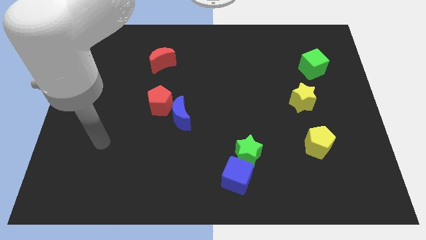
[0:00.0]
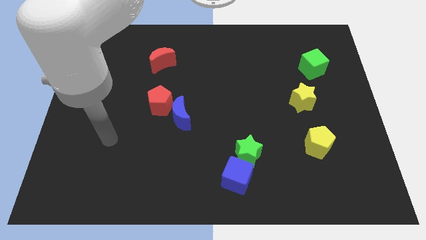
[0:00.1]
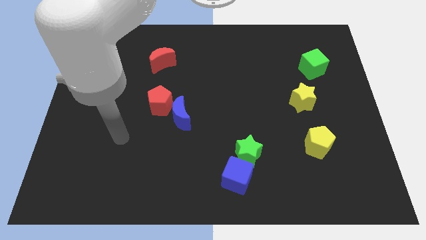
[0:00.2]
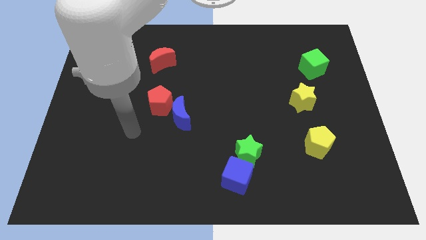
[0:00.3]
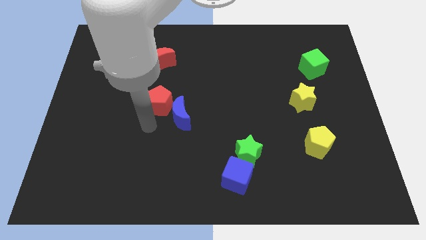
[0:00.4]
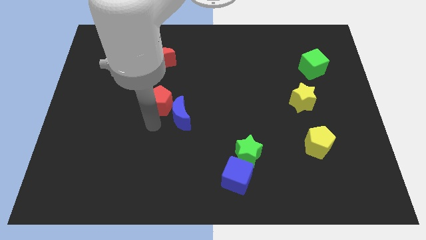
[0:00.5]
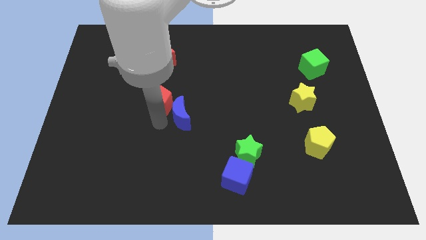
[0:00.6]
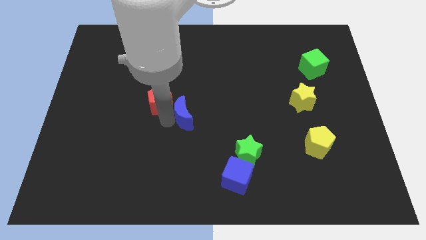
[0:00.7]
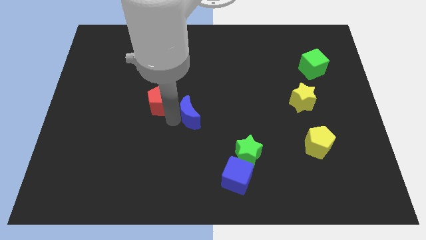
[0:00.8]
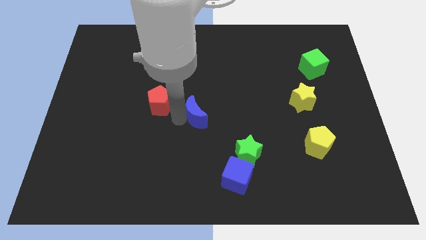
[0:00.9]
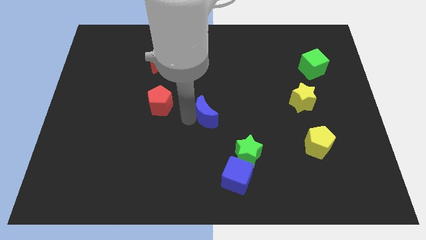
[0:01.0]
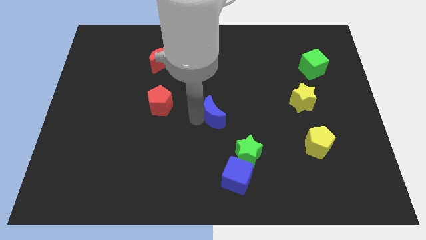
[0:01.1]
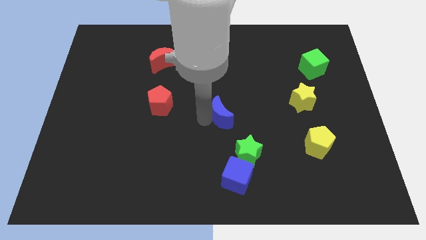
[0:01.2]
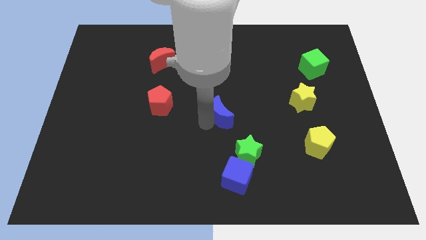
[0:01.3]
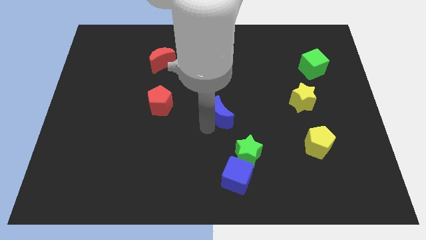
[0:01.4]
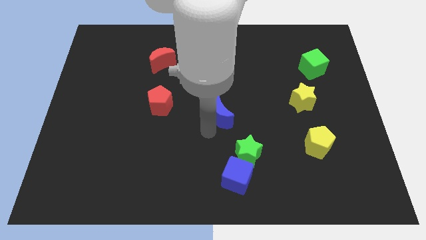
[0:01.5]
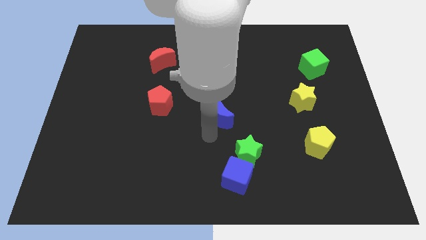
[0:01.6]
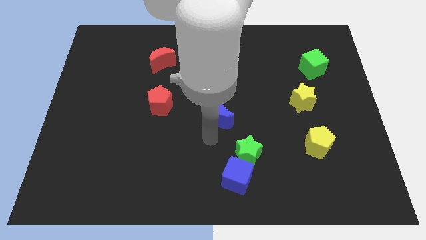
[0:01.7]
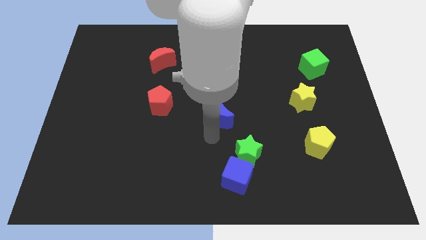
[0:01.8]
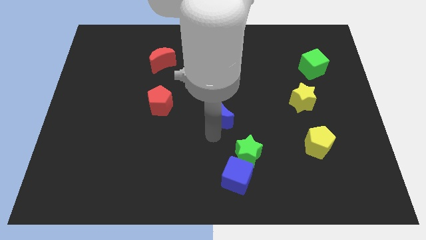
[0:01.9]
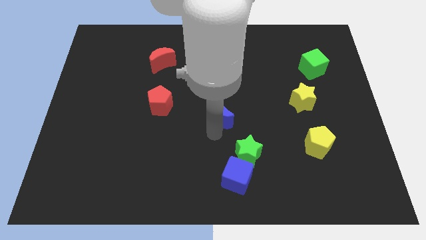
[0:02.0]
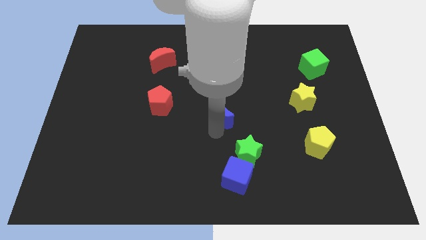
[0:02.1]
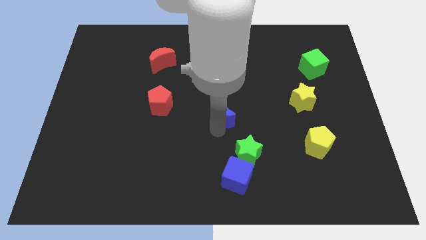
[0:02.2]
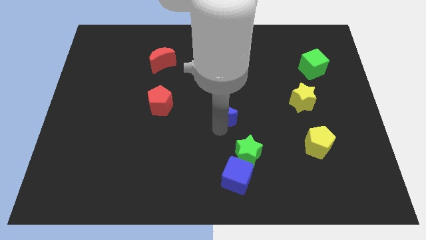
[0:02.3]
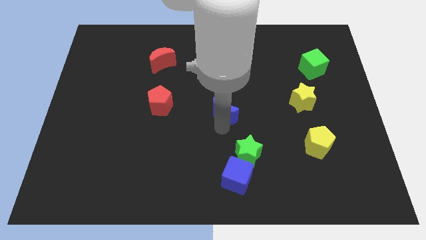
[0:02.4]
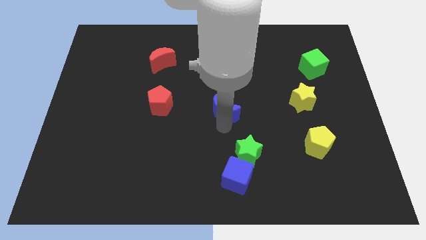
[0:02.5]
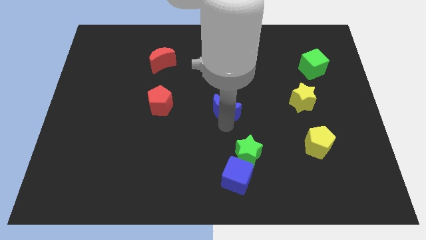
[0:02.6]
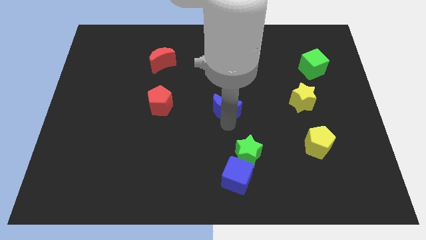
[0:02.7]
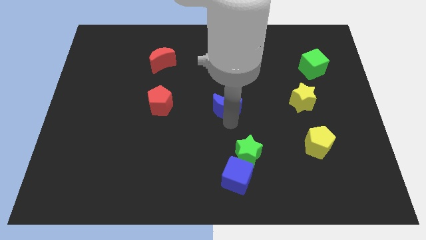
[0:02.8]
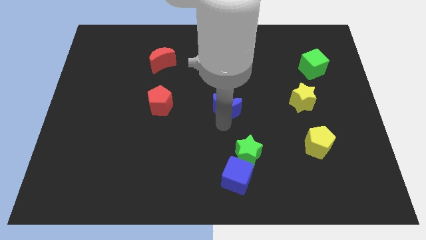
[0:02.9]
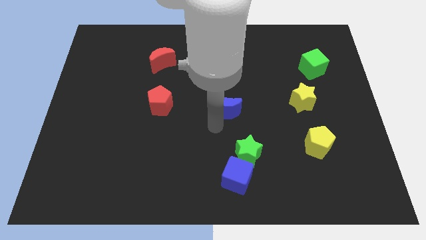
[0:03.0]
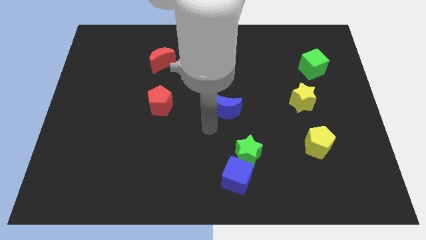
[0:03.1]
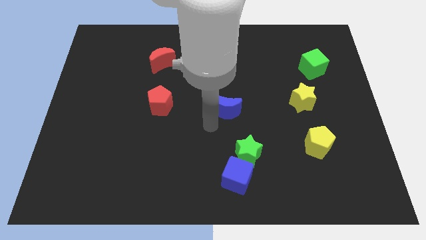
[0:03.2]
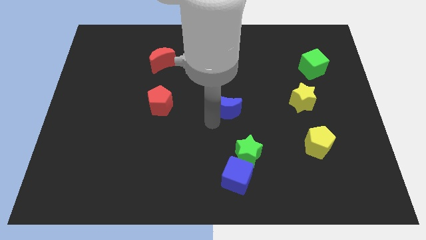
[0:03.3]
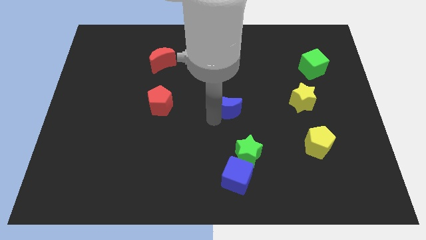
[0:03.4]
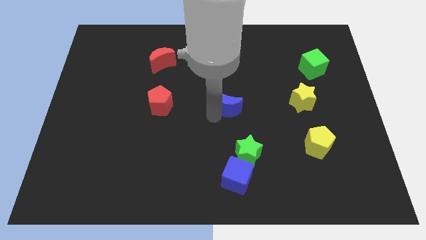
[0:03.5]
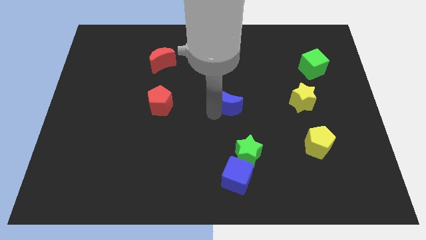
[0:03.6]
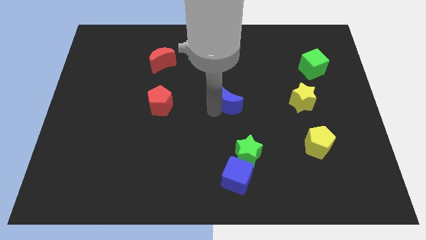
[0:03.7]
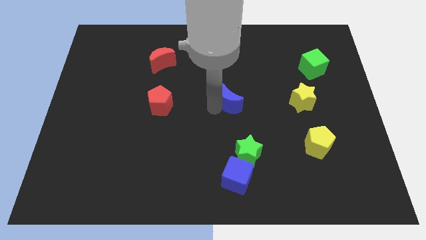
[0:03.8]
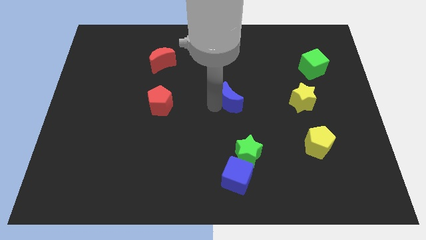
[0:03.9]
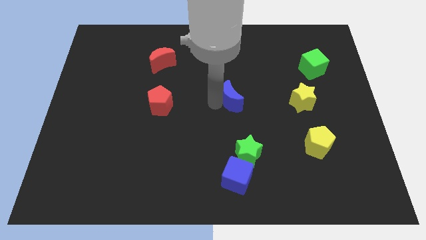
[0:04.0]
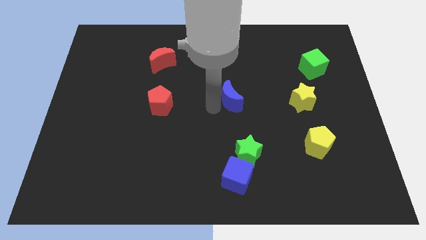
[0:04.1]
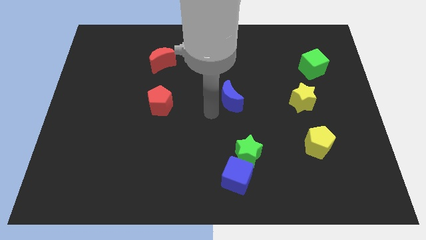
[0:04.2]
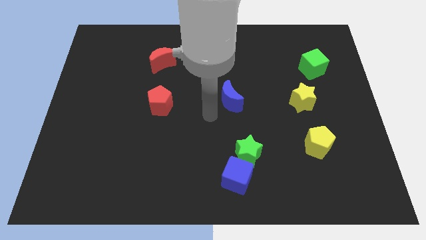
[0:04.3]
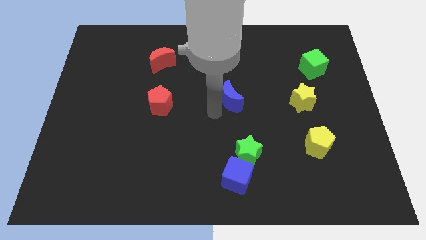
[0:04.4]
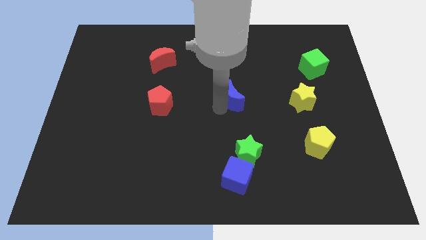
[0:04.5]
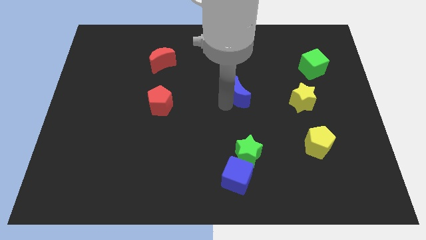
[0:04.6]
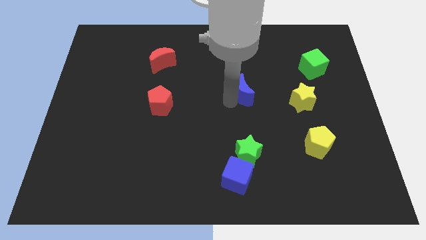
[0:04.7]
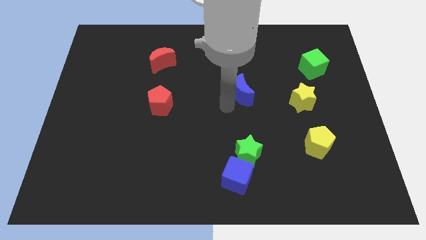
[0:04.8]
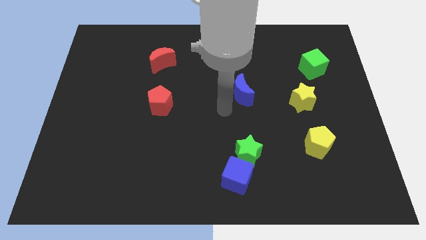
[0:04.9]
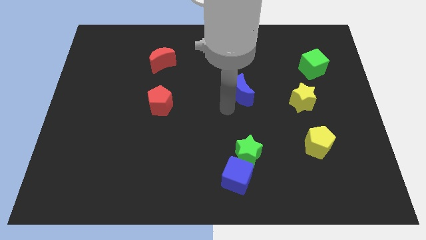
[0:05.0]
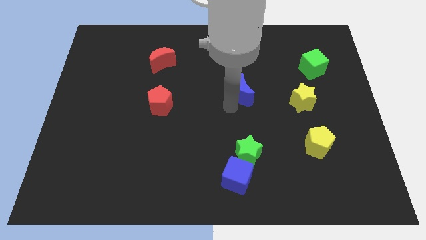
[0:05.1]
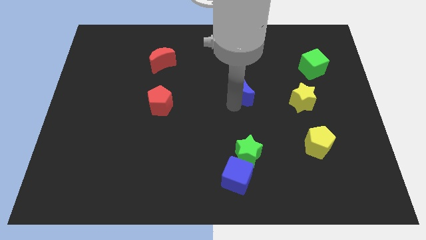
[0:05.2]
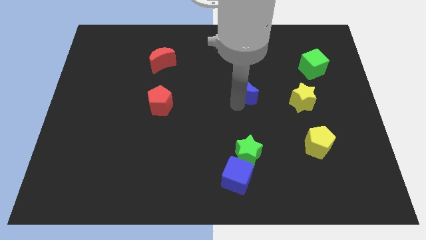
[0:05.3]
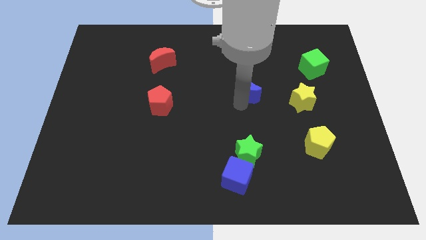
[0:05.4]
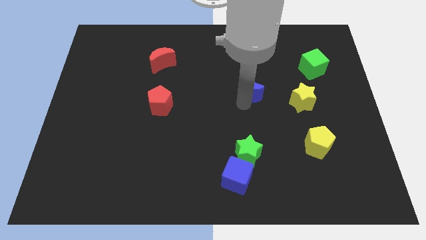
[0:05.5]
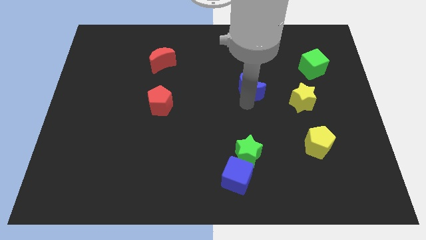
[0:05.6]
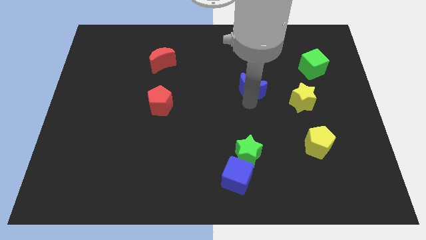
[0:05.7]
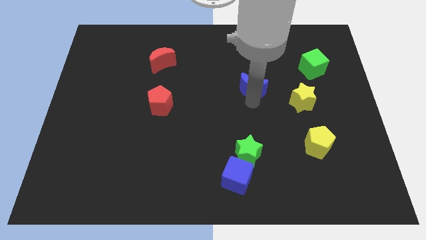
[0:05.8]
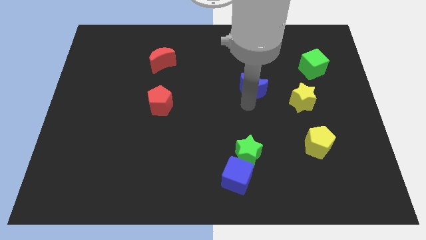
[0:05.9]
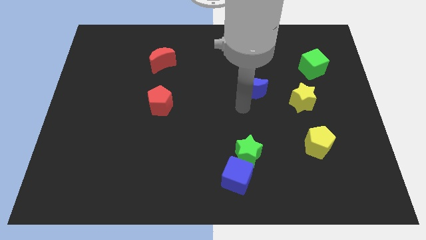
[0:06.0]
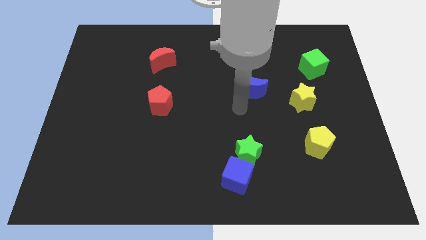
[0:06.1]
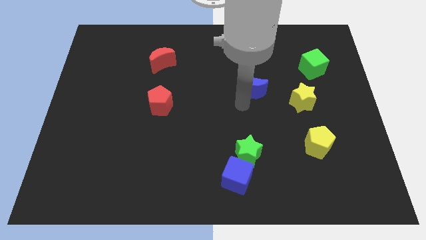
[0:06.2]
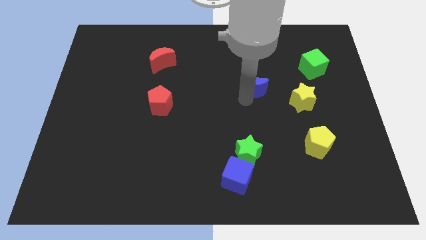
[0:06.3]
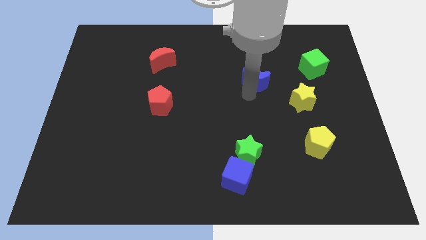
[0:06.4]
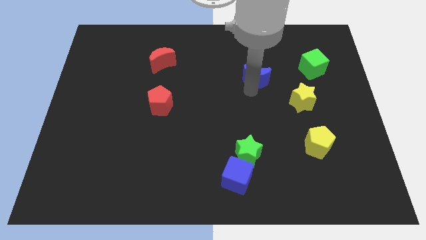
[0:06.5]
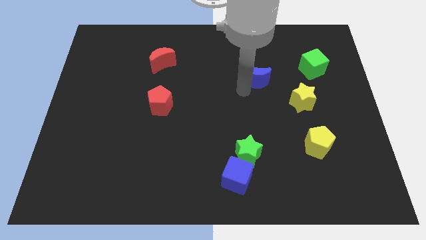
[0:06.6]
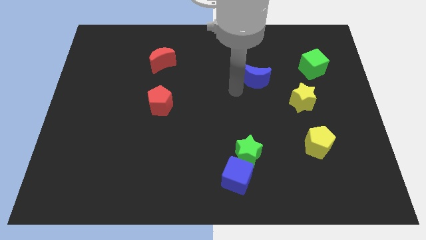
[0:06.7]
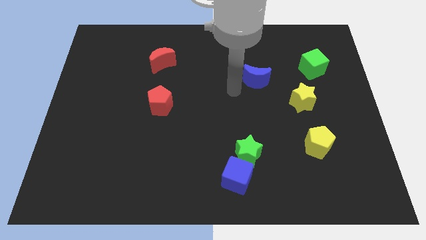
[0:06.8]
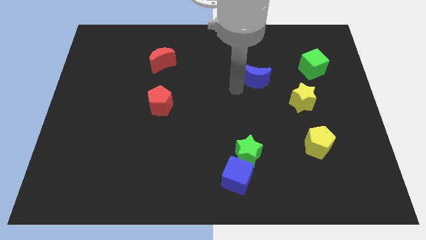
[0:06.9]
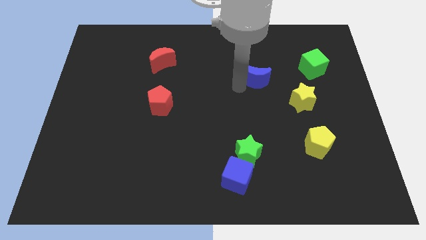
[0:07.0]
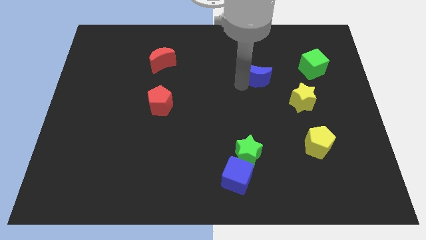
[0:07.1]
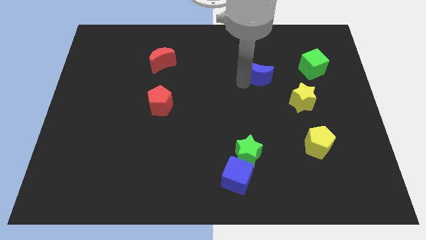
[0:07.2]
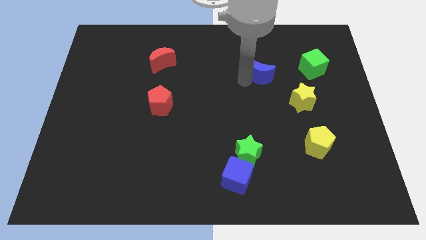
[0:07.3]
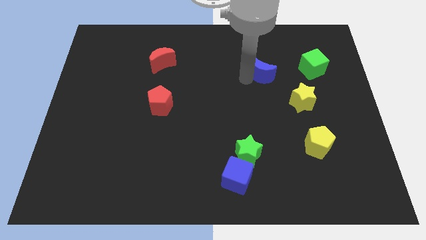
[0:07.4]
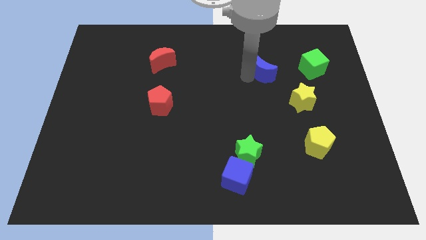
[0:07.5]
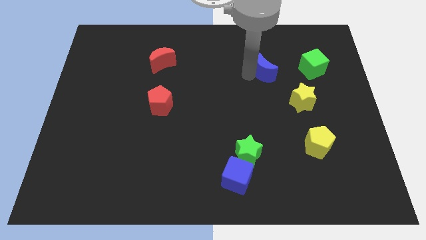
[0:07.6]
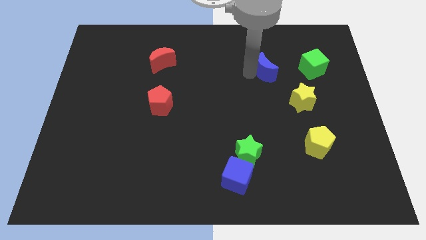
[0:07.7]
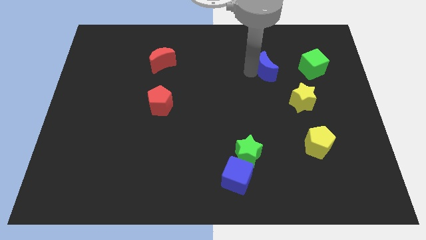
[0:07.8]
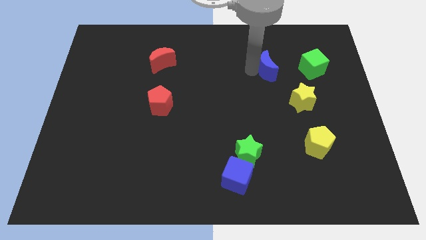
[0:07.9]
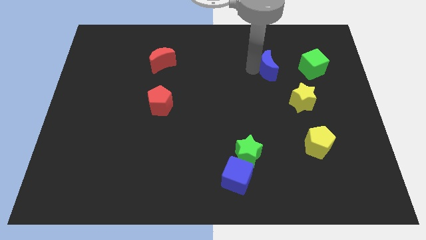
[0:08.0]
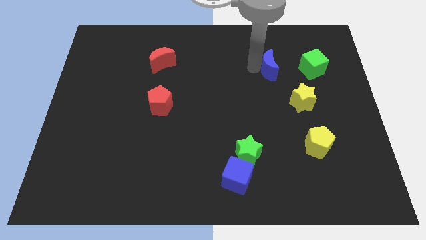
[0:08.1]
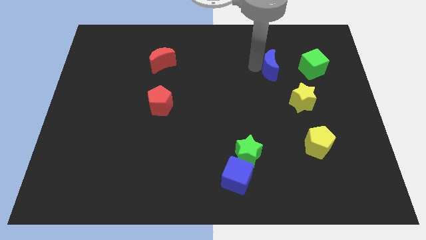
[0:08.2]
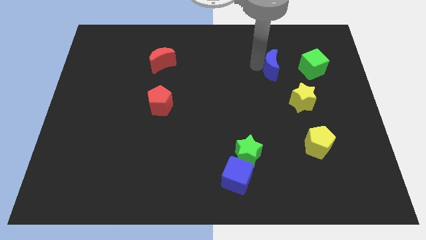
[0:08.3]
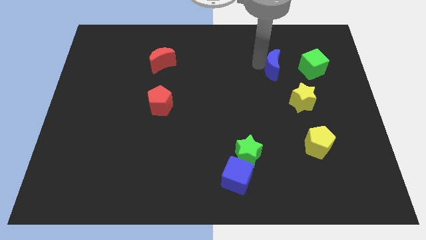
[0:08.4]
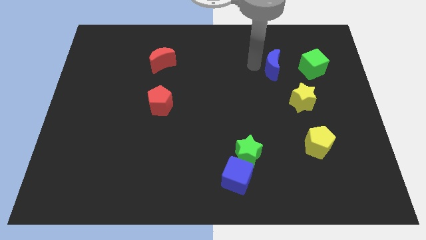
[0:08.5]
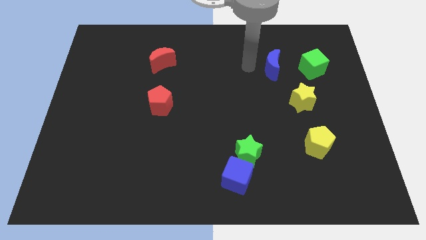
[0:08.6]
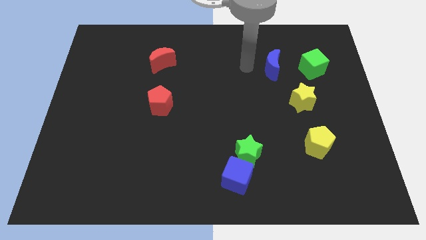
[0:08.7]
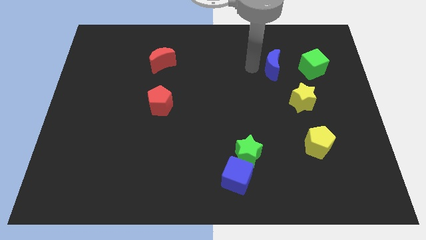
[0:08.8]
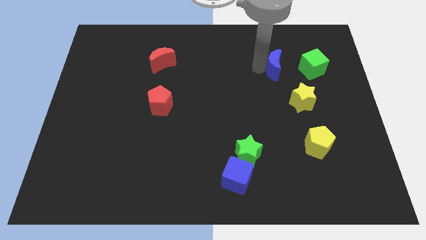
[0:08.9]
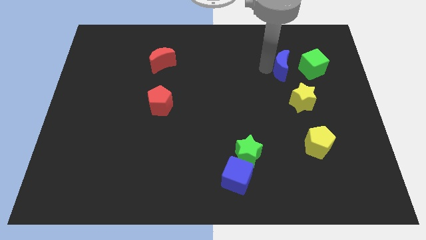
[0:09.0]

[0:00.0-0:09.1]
slide the blue moon to the top side of the yellow star
